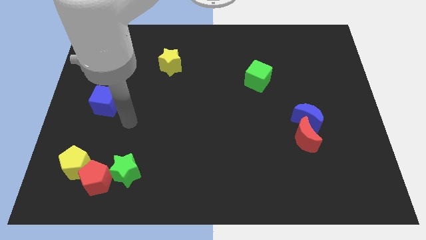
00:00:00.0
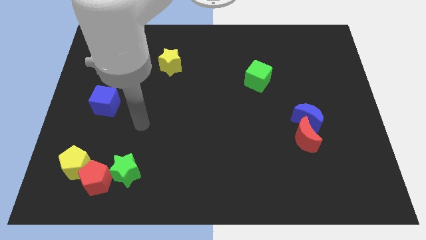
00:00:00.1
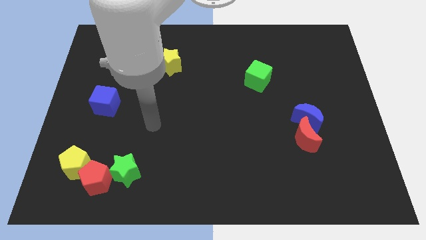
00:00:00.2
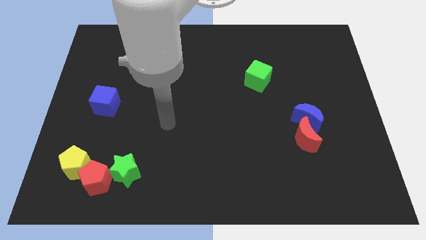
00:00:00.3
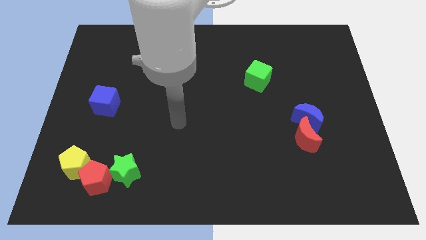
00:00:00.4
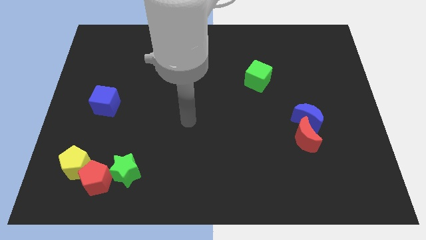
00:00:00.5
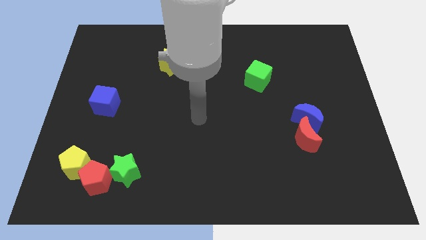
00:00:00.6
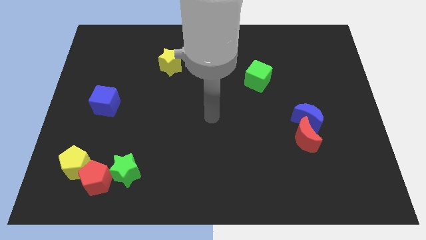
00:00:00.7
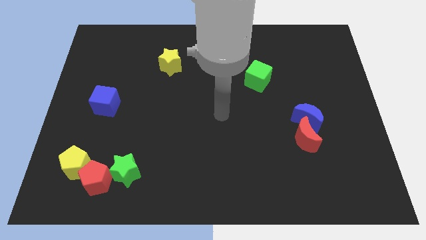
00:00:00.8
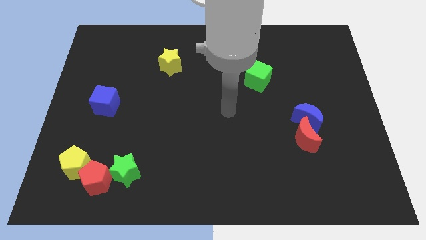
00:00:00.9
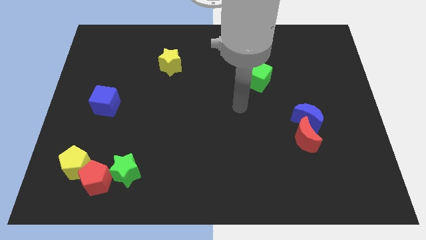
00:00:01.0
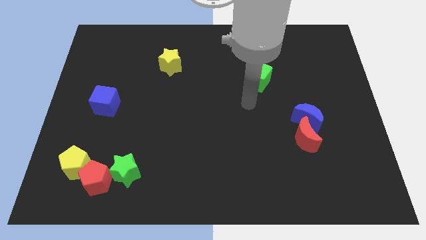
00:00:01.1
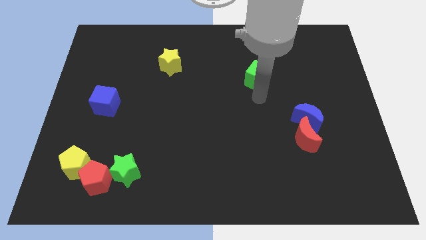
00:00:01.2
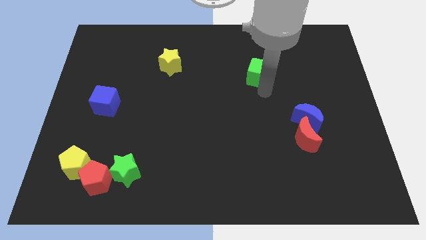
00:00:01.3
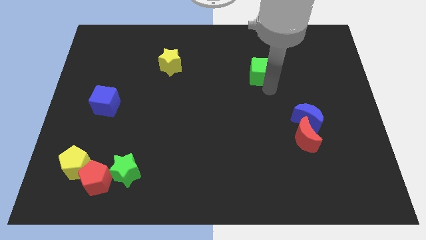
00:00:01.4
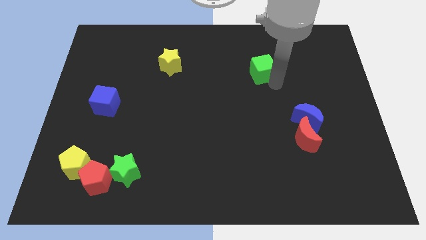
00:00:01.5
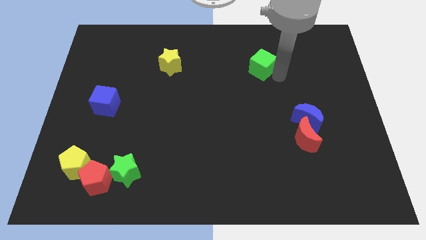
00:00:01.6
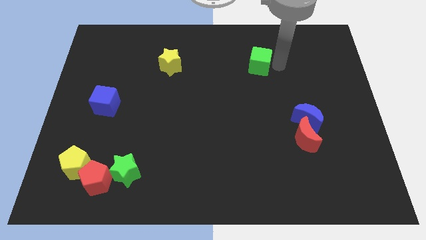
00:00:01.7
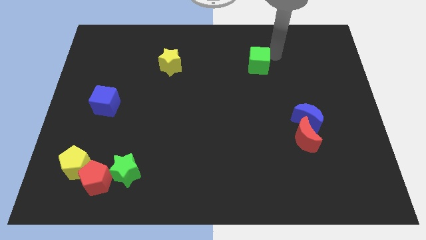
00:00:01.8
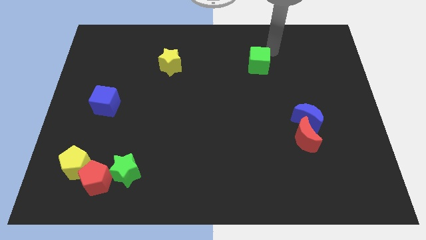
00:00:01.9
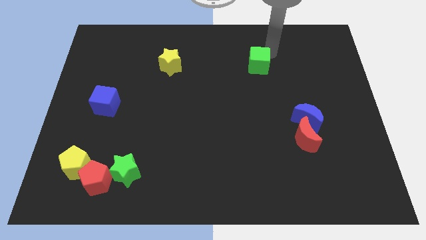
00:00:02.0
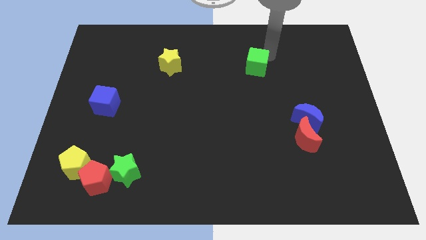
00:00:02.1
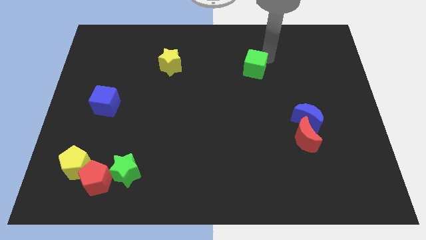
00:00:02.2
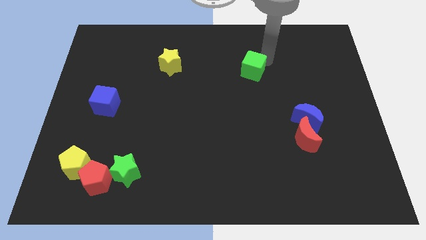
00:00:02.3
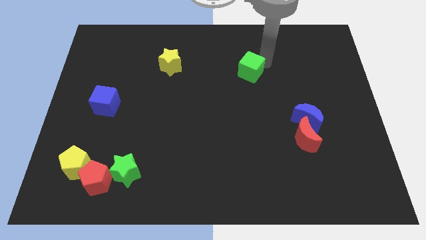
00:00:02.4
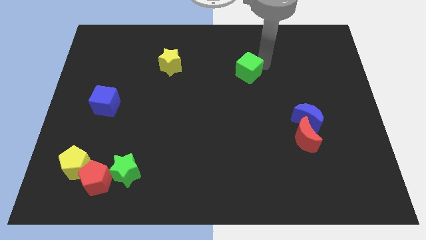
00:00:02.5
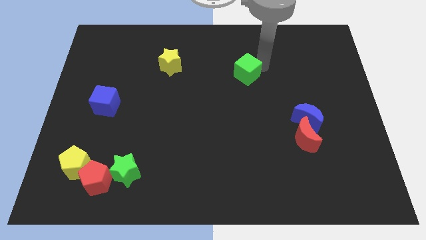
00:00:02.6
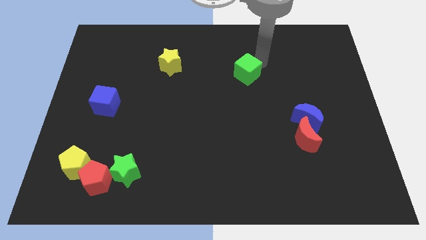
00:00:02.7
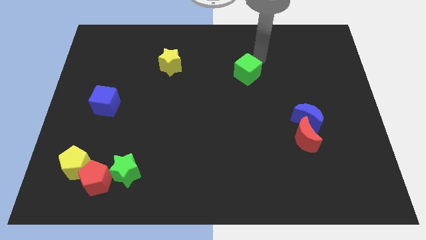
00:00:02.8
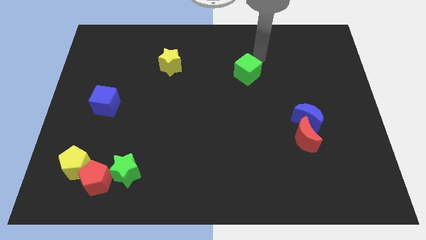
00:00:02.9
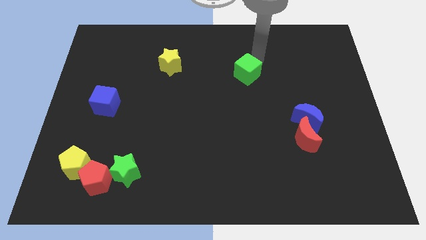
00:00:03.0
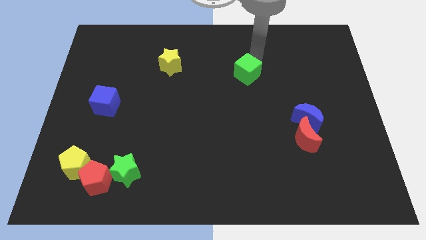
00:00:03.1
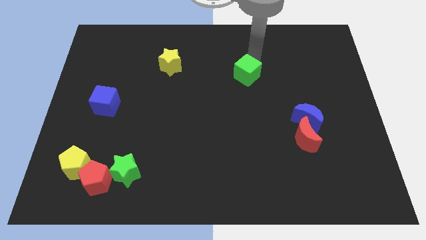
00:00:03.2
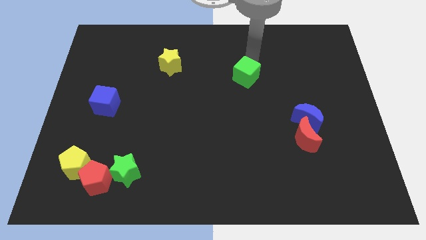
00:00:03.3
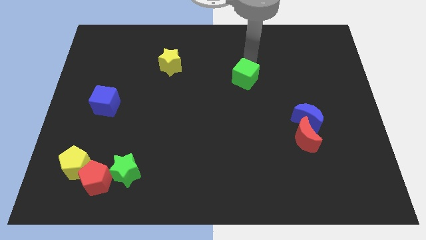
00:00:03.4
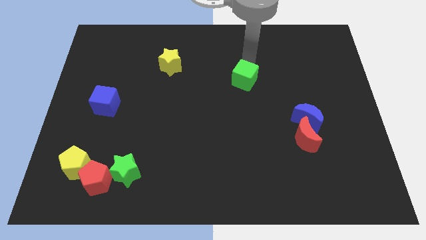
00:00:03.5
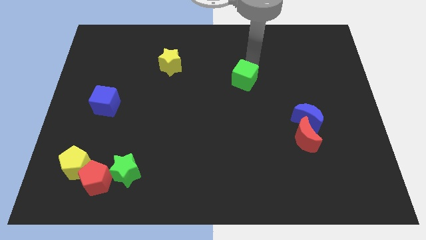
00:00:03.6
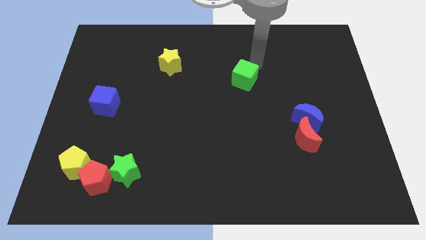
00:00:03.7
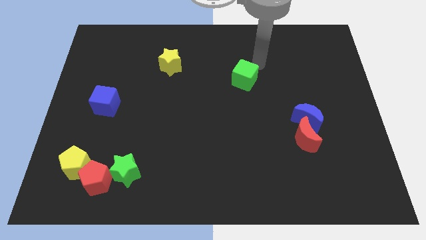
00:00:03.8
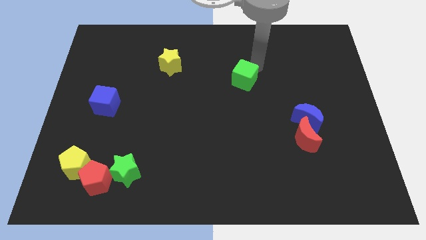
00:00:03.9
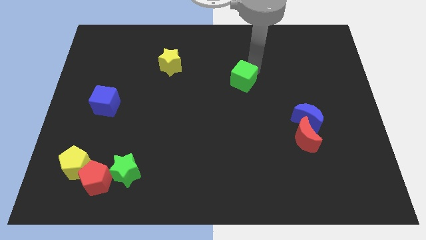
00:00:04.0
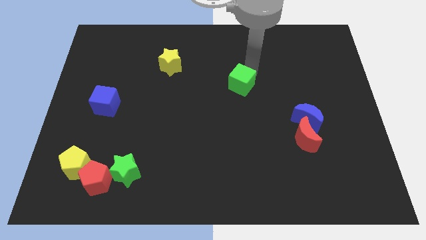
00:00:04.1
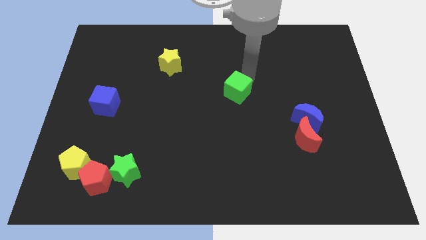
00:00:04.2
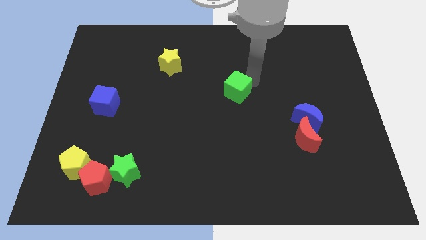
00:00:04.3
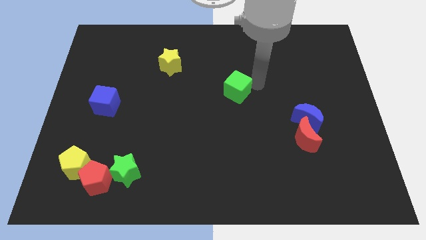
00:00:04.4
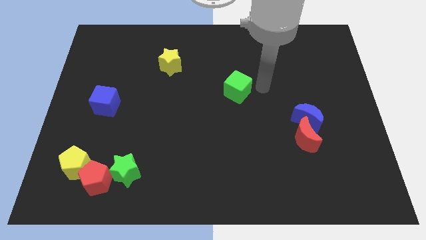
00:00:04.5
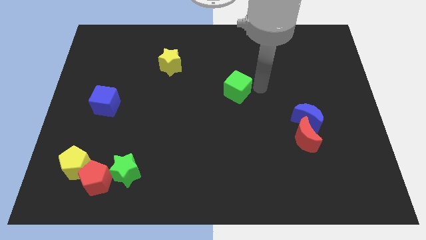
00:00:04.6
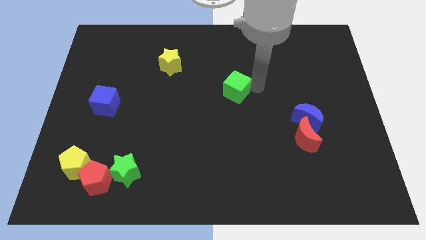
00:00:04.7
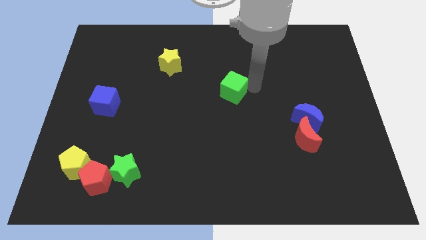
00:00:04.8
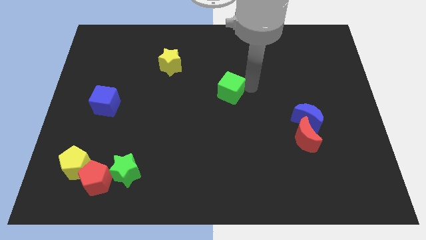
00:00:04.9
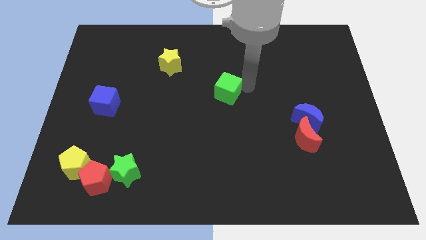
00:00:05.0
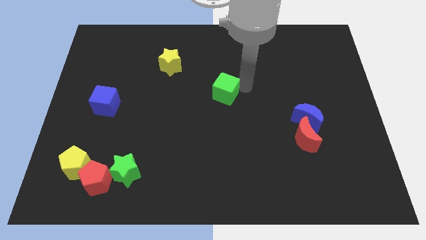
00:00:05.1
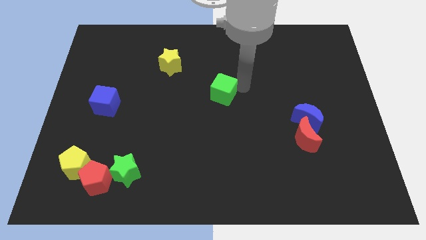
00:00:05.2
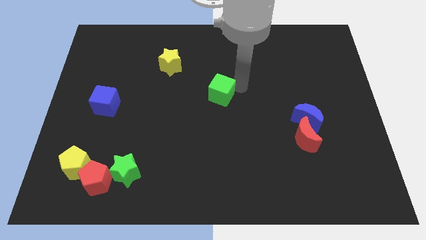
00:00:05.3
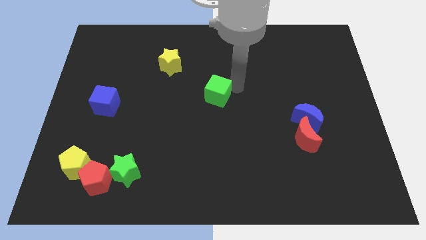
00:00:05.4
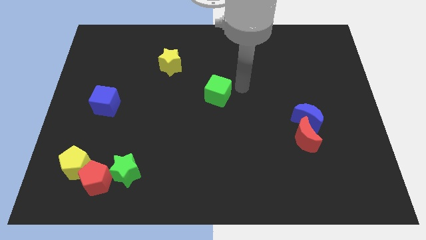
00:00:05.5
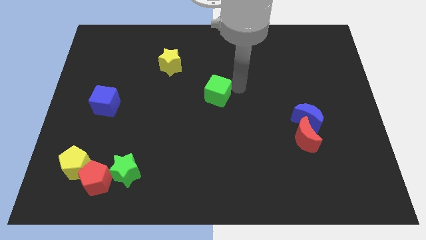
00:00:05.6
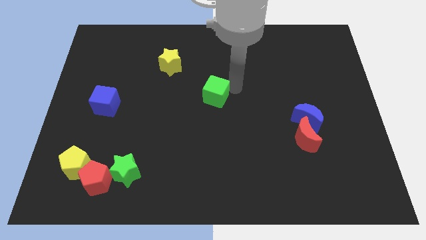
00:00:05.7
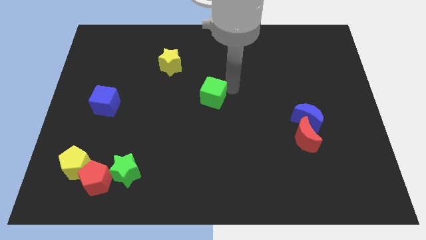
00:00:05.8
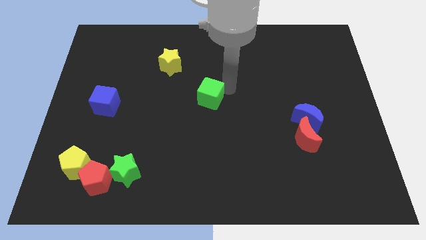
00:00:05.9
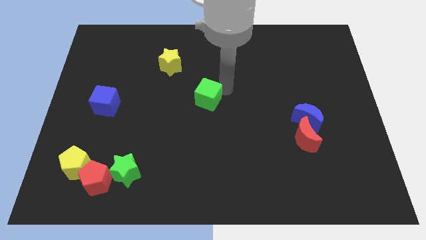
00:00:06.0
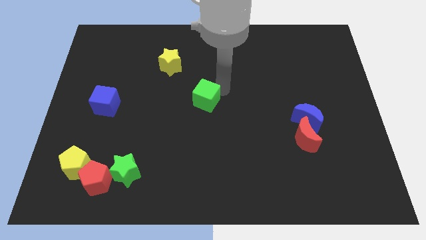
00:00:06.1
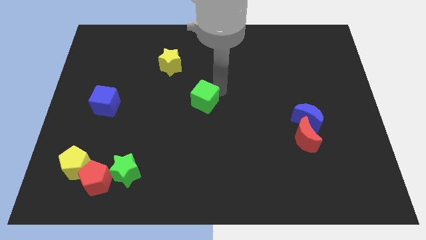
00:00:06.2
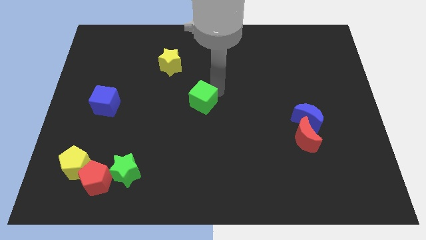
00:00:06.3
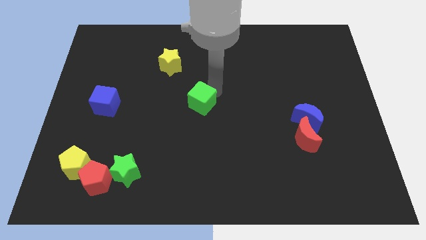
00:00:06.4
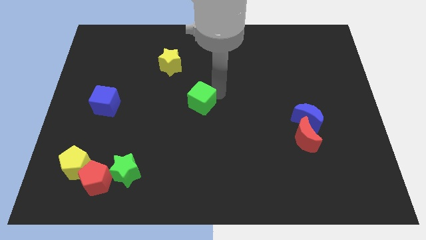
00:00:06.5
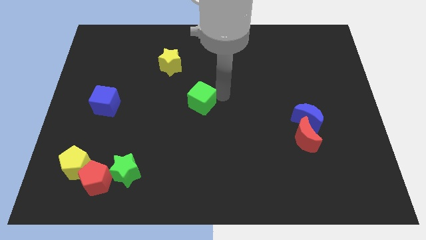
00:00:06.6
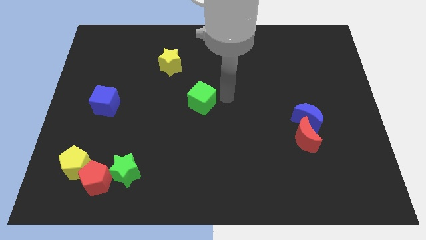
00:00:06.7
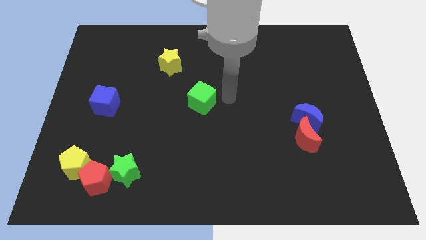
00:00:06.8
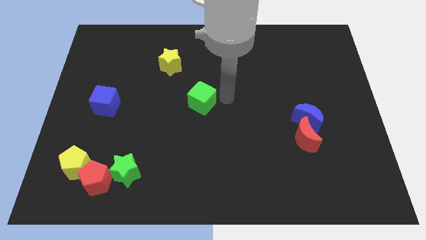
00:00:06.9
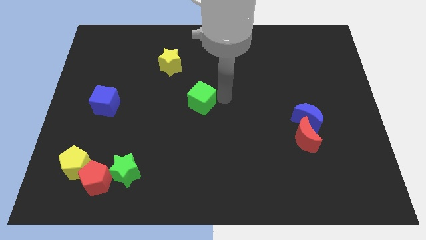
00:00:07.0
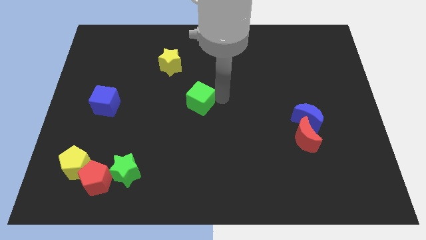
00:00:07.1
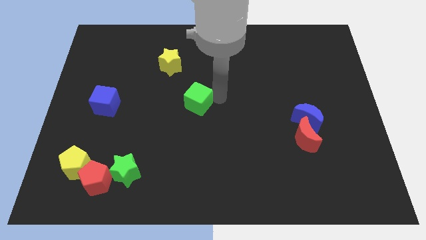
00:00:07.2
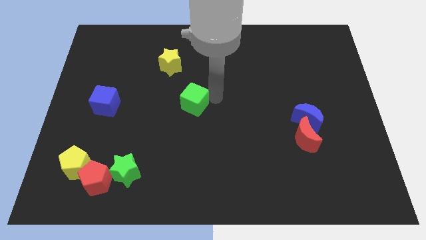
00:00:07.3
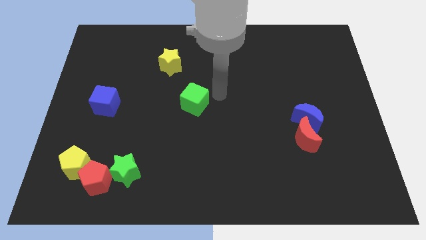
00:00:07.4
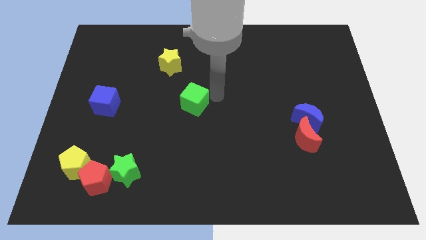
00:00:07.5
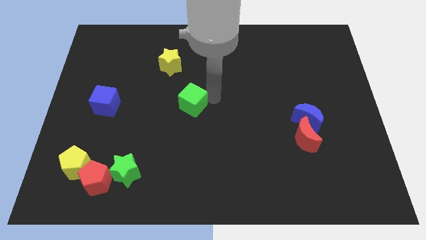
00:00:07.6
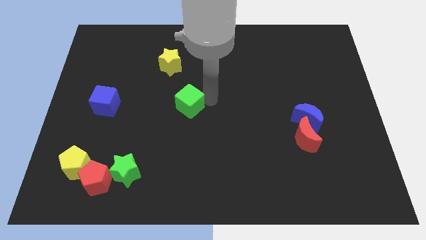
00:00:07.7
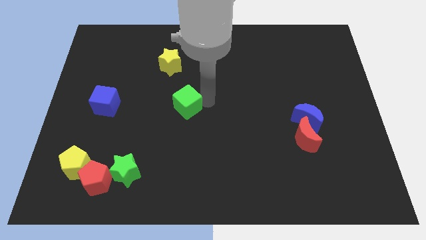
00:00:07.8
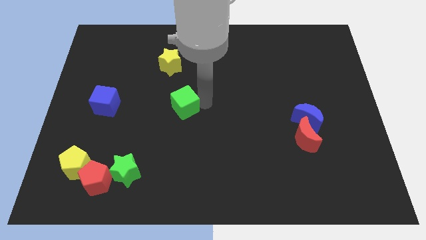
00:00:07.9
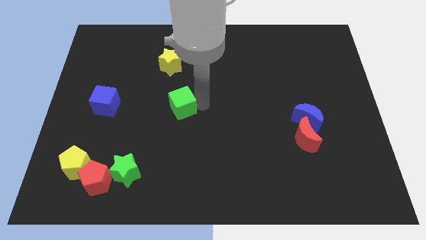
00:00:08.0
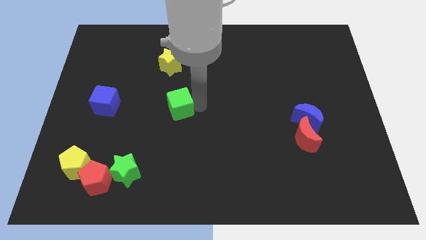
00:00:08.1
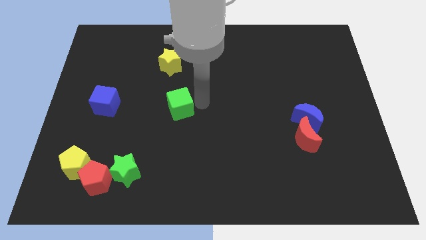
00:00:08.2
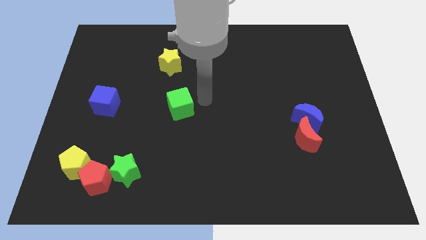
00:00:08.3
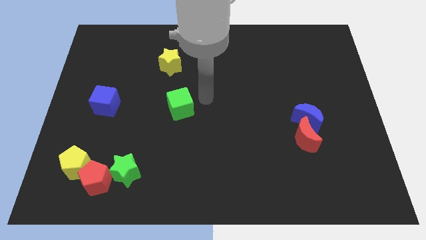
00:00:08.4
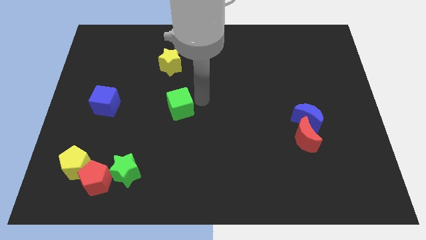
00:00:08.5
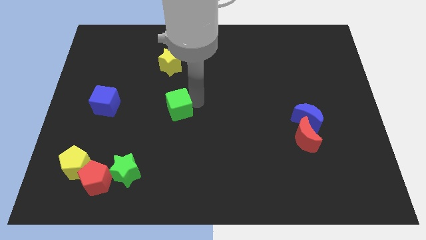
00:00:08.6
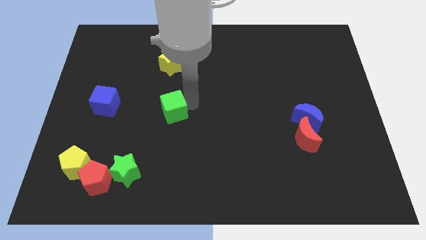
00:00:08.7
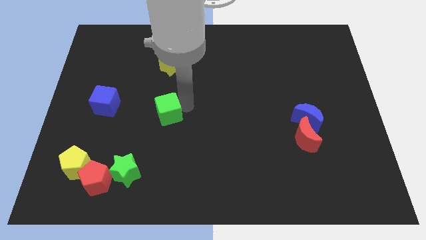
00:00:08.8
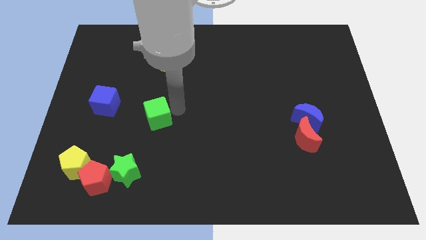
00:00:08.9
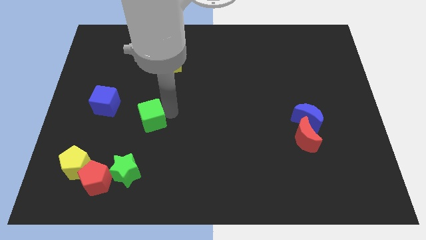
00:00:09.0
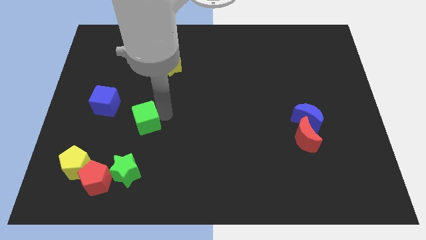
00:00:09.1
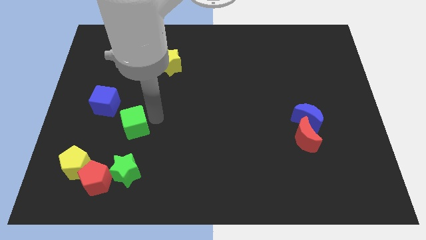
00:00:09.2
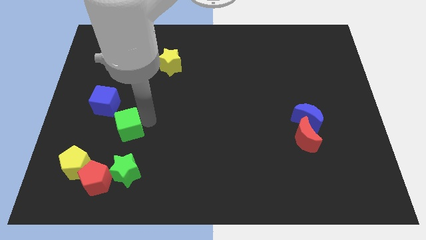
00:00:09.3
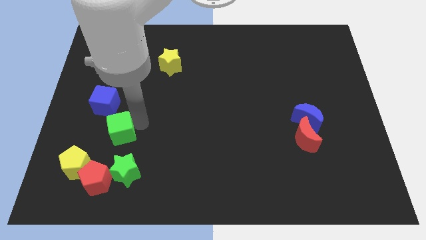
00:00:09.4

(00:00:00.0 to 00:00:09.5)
push the green cube to the top side of the red pentagon
